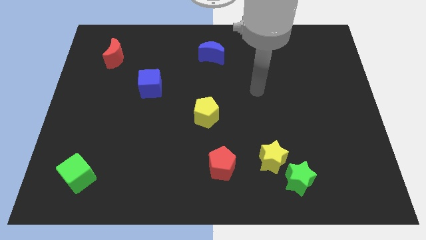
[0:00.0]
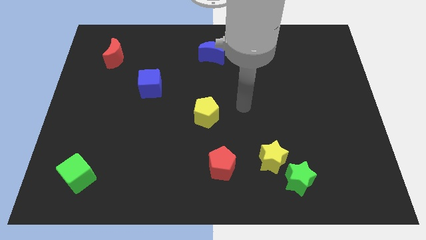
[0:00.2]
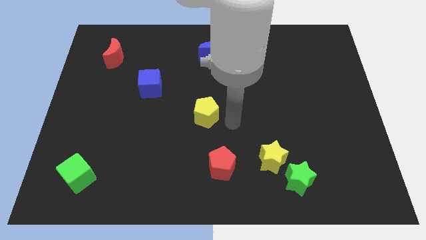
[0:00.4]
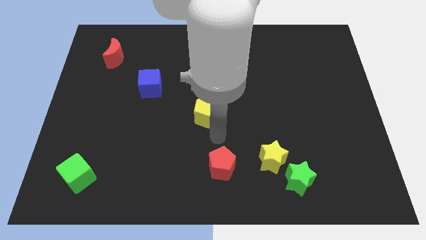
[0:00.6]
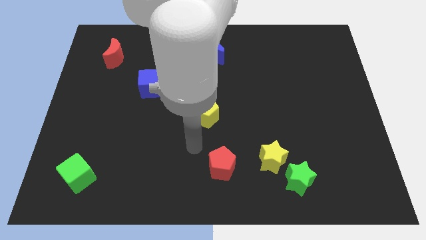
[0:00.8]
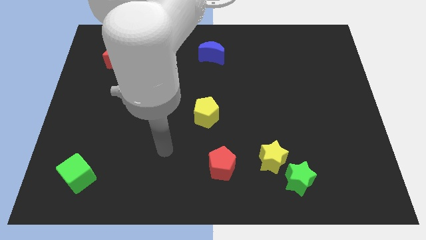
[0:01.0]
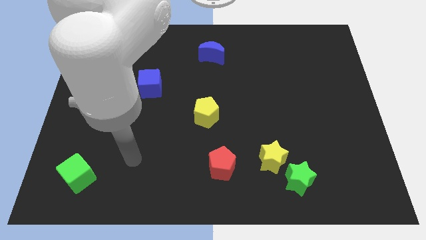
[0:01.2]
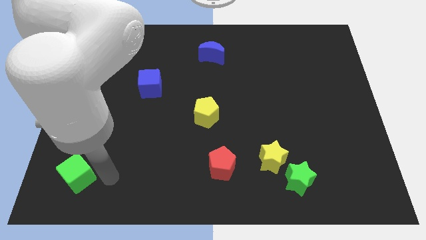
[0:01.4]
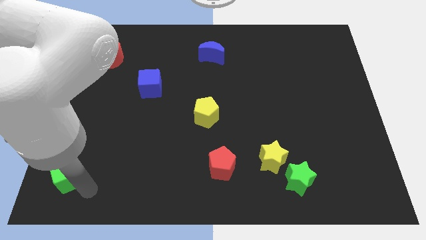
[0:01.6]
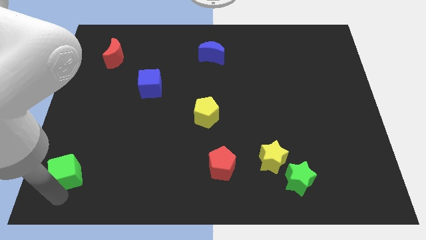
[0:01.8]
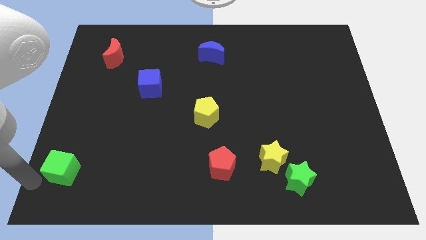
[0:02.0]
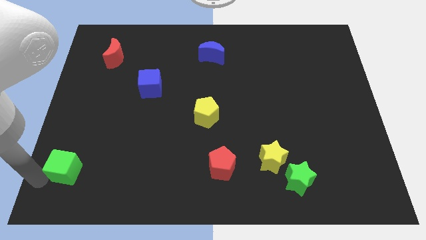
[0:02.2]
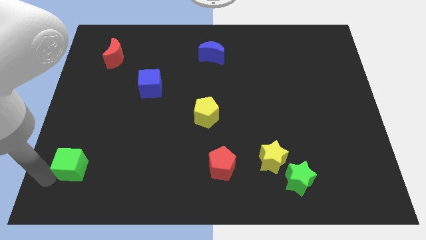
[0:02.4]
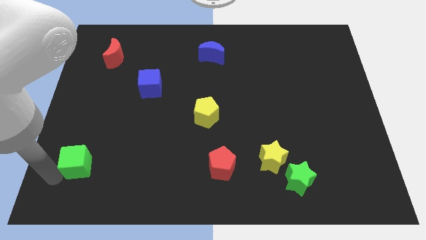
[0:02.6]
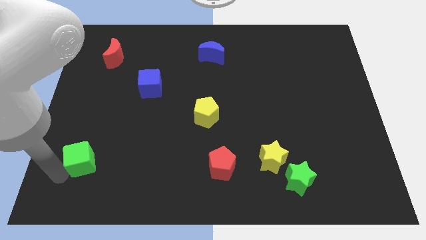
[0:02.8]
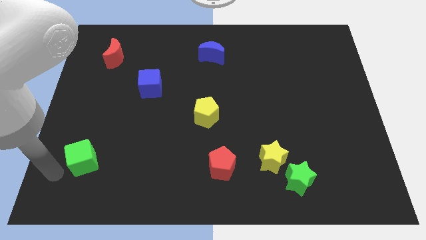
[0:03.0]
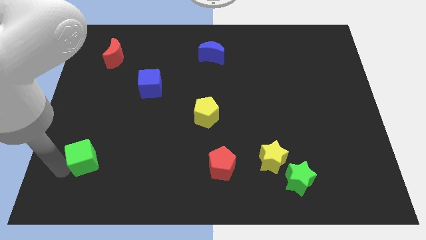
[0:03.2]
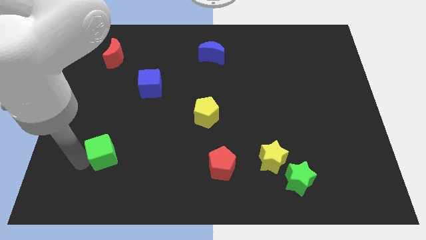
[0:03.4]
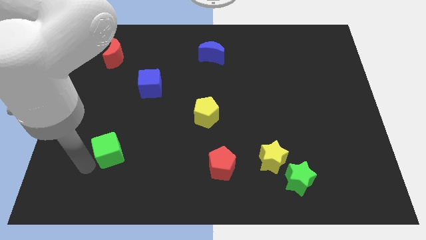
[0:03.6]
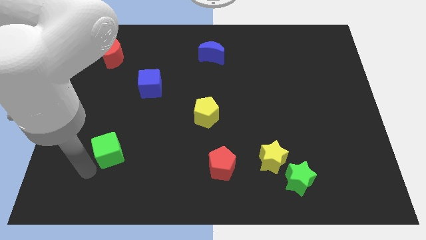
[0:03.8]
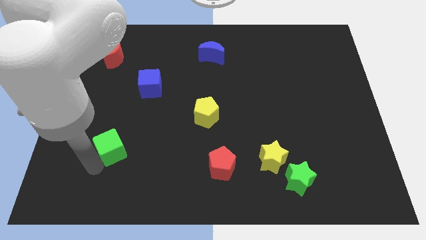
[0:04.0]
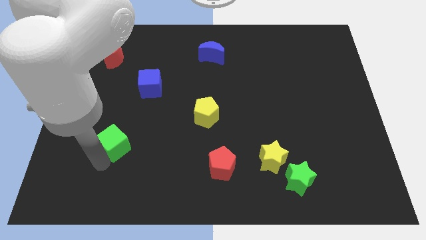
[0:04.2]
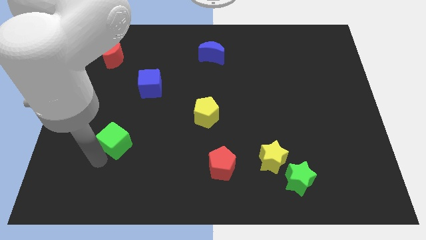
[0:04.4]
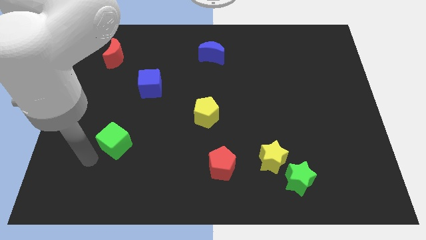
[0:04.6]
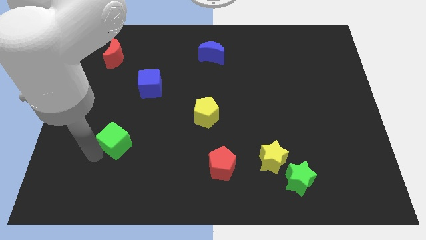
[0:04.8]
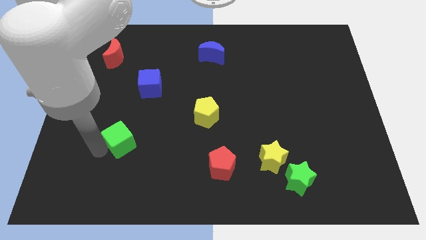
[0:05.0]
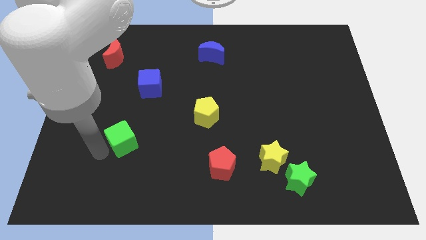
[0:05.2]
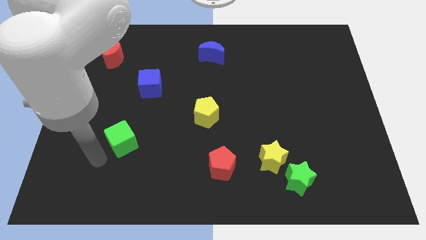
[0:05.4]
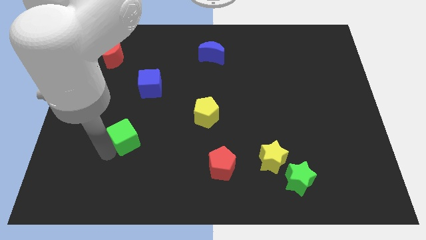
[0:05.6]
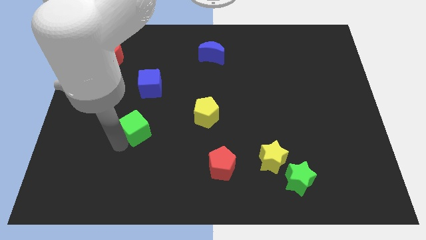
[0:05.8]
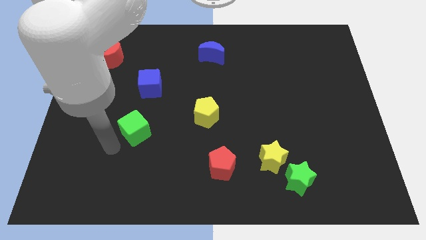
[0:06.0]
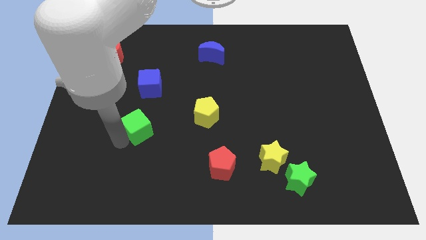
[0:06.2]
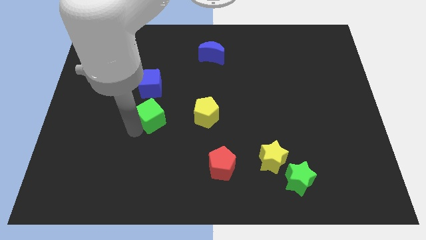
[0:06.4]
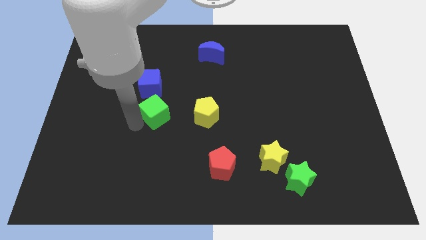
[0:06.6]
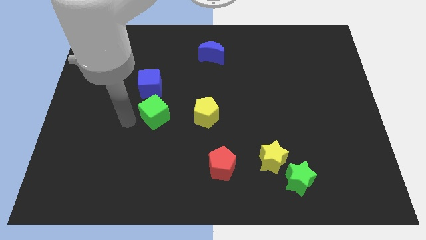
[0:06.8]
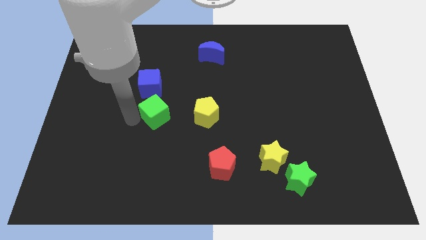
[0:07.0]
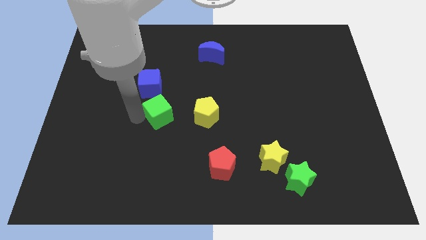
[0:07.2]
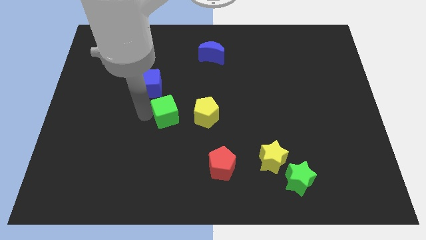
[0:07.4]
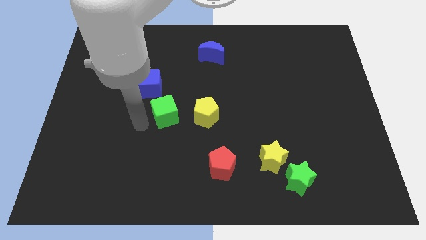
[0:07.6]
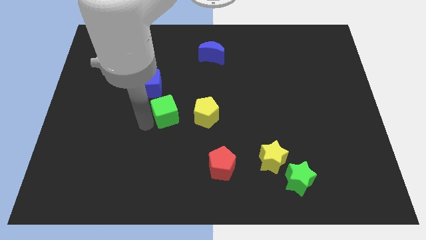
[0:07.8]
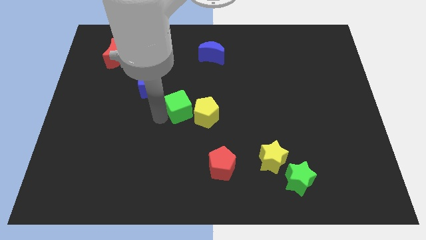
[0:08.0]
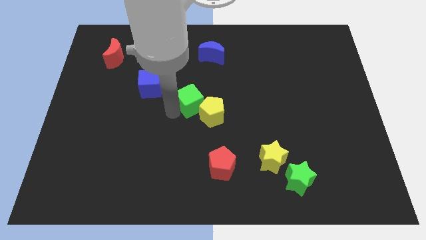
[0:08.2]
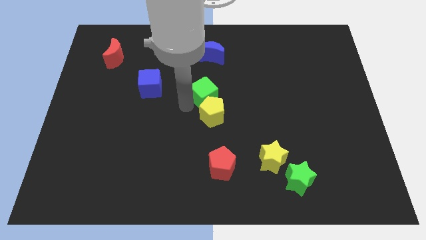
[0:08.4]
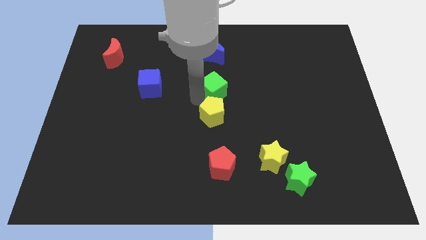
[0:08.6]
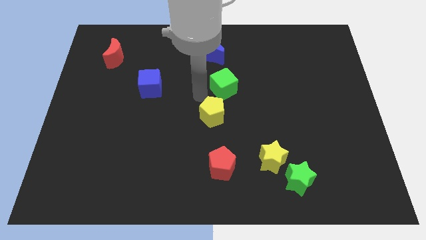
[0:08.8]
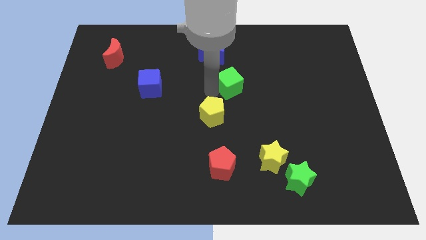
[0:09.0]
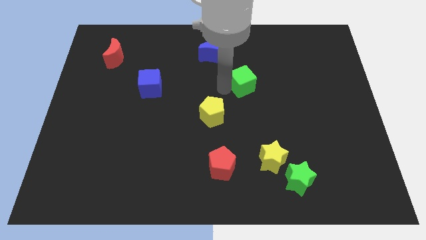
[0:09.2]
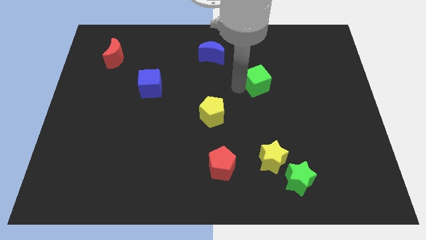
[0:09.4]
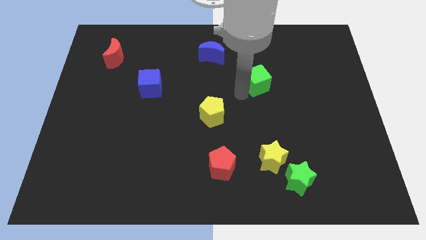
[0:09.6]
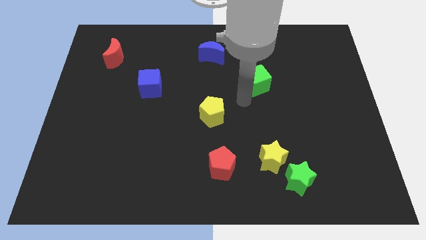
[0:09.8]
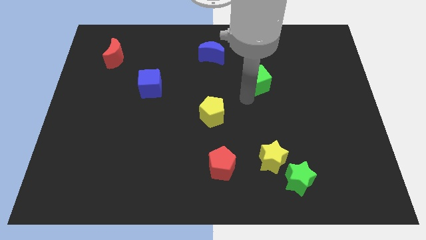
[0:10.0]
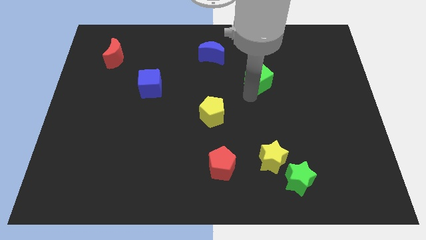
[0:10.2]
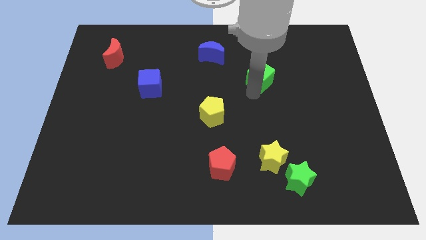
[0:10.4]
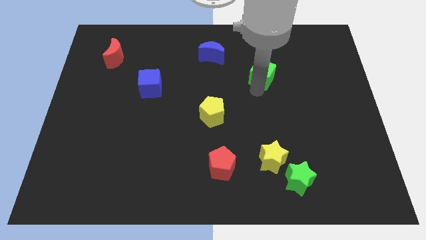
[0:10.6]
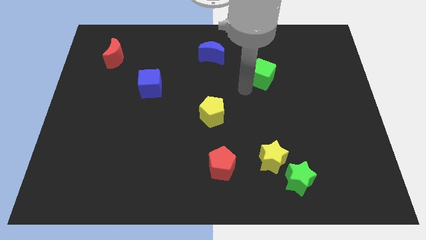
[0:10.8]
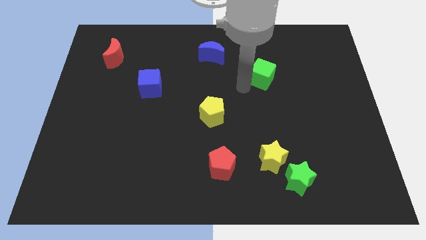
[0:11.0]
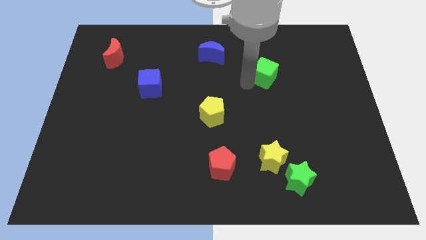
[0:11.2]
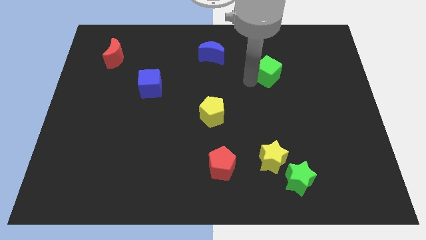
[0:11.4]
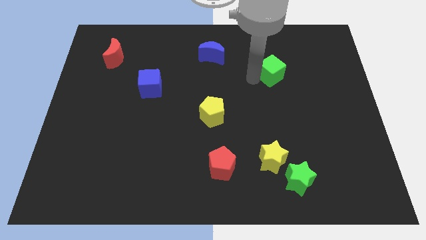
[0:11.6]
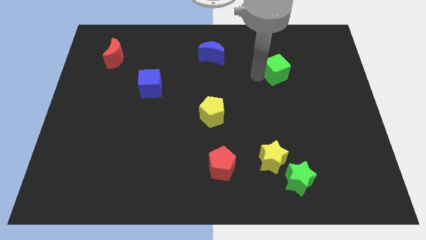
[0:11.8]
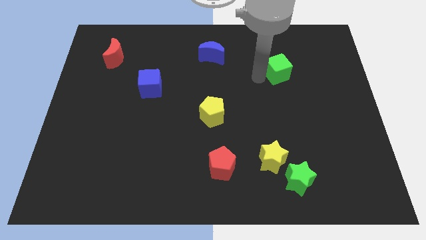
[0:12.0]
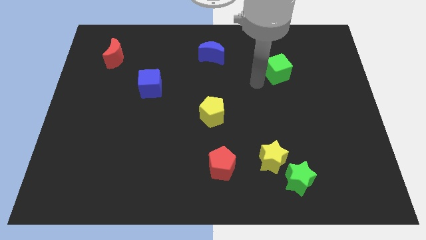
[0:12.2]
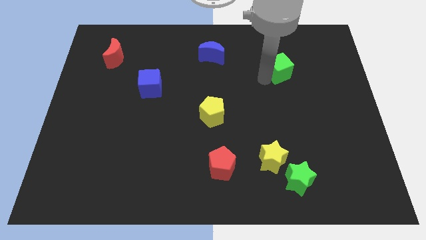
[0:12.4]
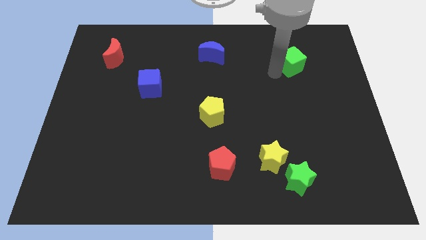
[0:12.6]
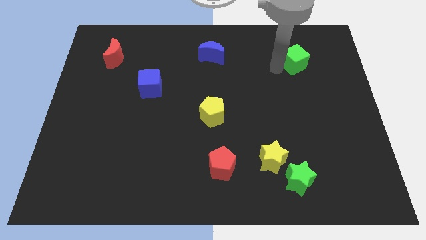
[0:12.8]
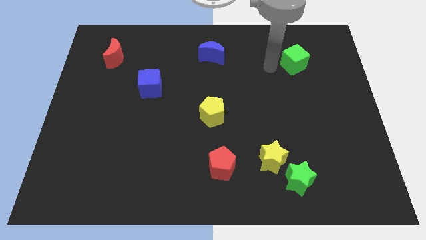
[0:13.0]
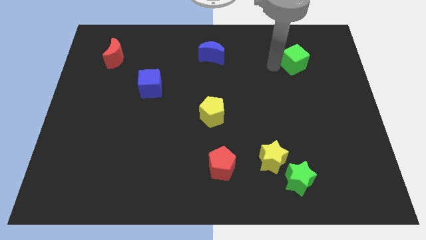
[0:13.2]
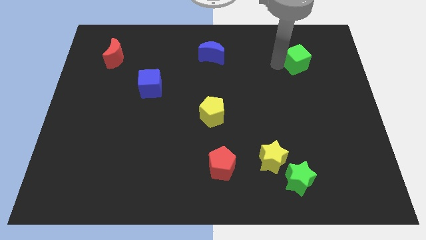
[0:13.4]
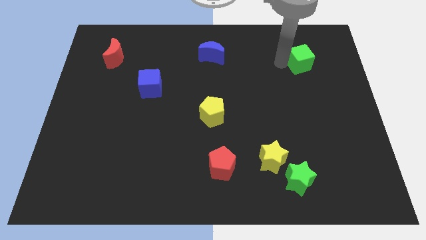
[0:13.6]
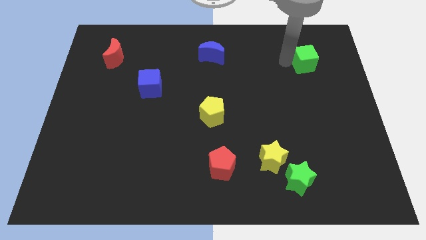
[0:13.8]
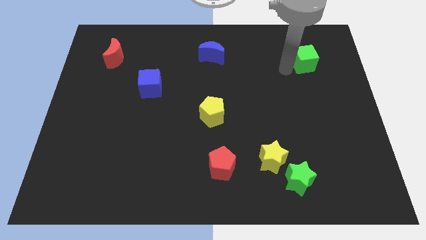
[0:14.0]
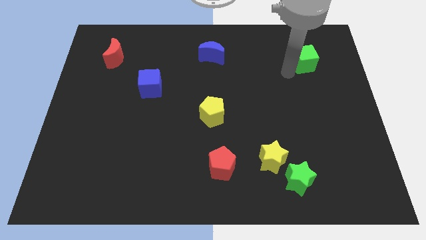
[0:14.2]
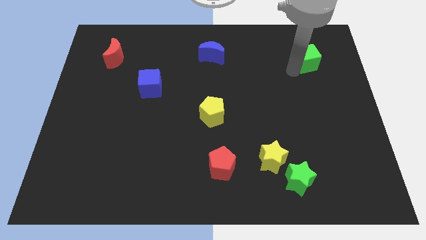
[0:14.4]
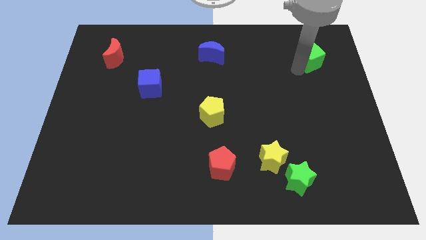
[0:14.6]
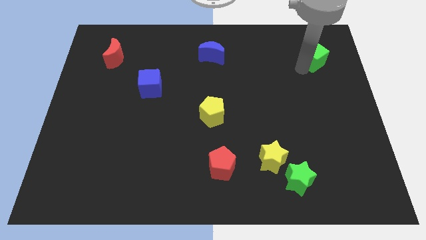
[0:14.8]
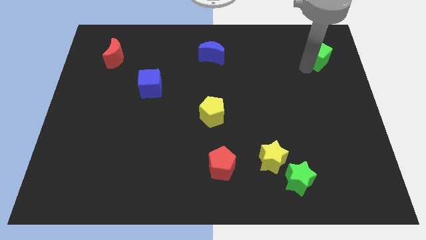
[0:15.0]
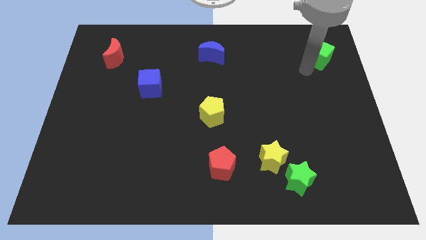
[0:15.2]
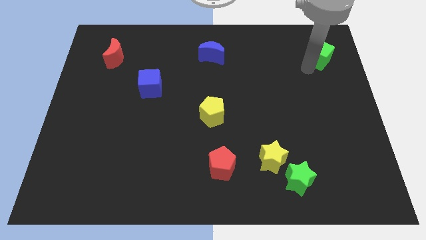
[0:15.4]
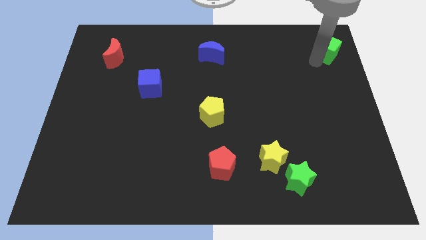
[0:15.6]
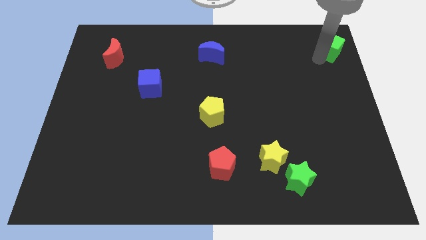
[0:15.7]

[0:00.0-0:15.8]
slide the green cube to the top right corner
